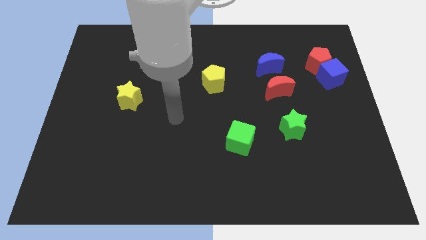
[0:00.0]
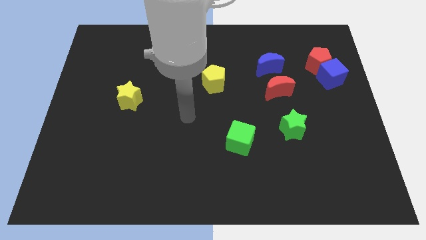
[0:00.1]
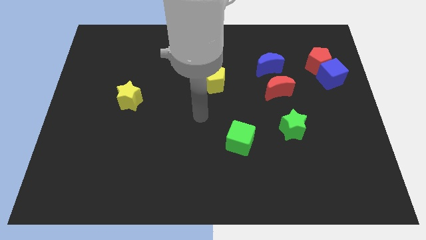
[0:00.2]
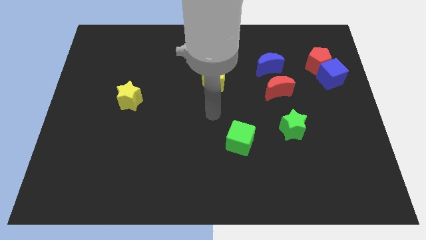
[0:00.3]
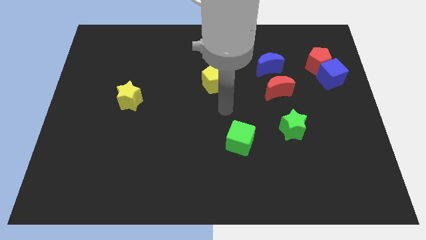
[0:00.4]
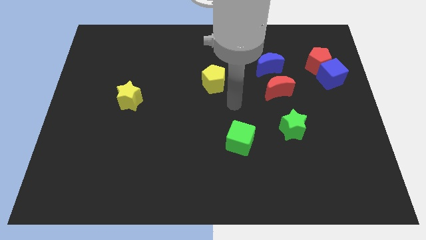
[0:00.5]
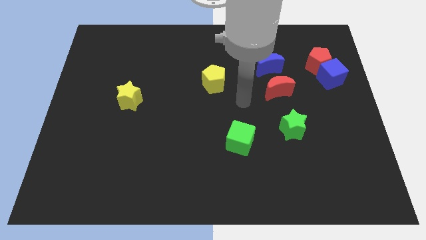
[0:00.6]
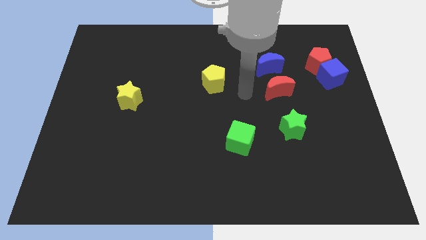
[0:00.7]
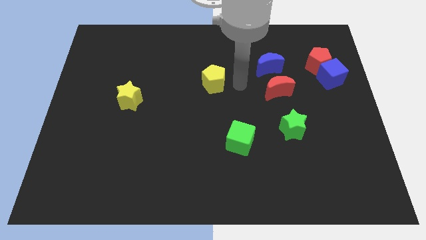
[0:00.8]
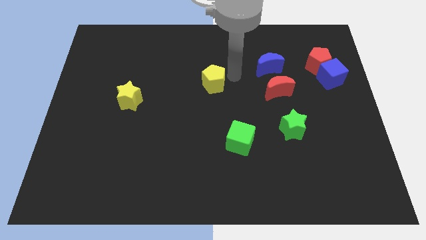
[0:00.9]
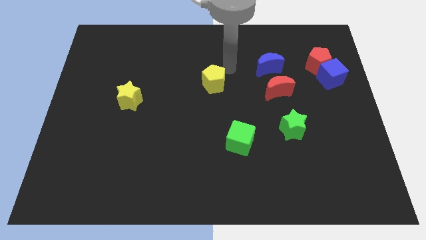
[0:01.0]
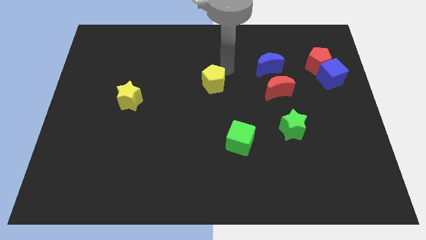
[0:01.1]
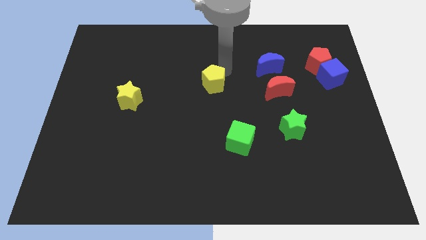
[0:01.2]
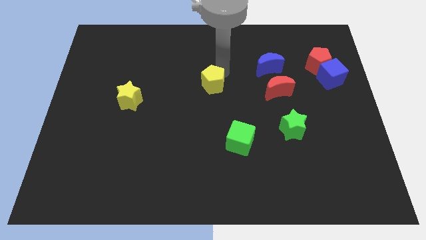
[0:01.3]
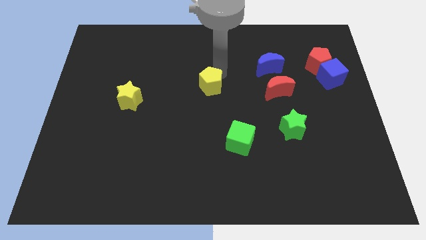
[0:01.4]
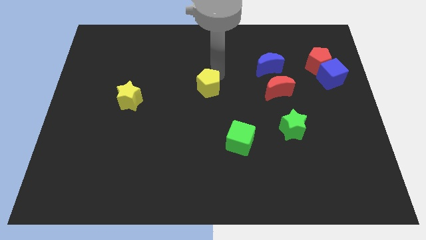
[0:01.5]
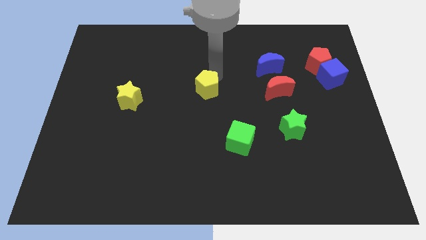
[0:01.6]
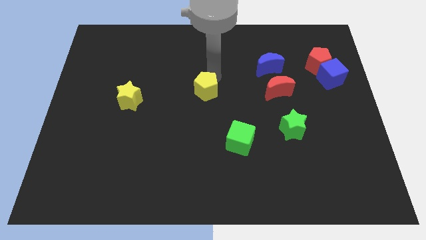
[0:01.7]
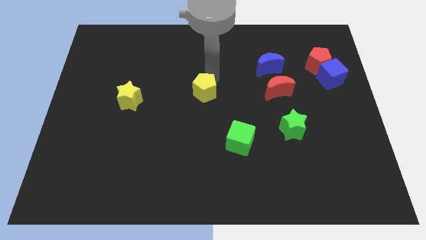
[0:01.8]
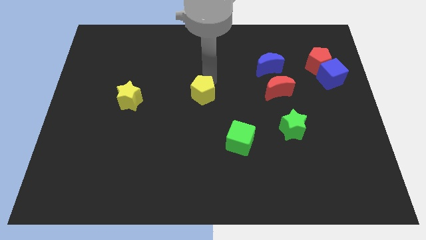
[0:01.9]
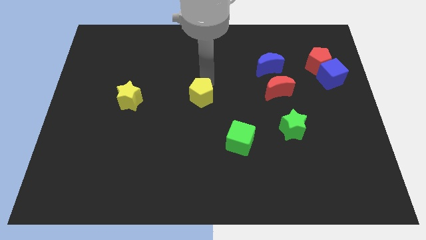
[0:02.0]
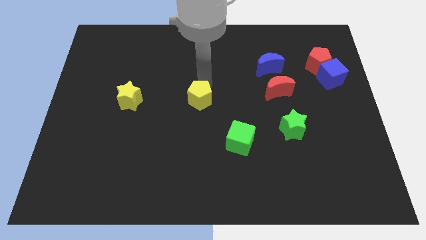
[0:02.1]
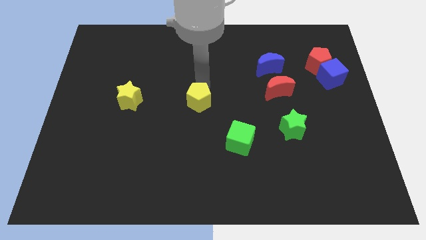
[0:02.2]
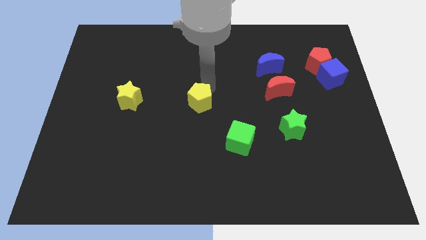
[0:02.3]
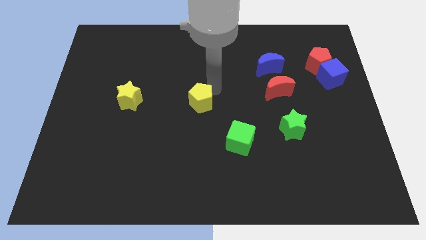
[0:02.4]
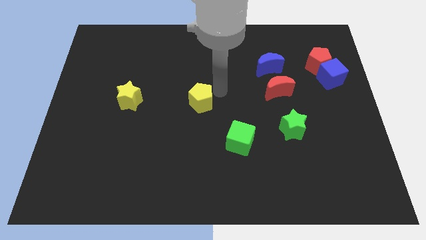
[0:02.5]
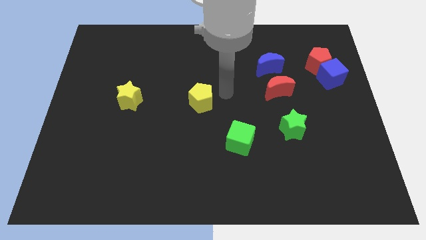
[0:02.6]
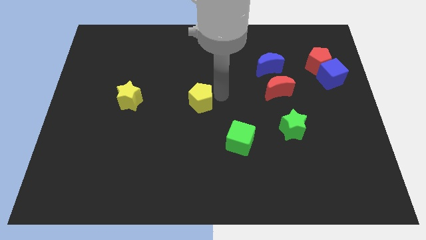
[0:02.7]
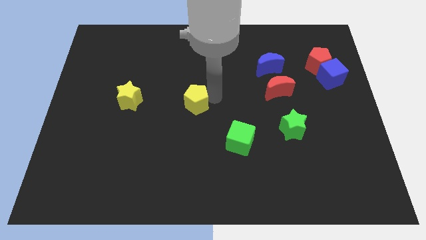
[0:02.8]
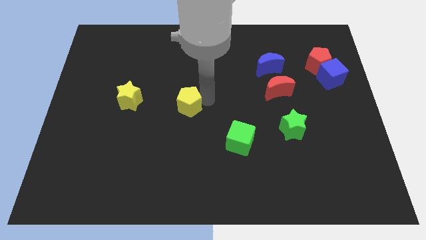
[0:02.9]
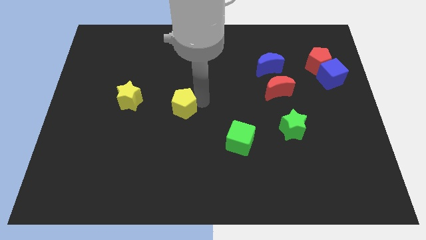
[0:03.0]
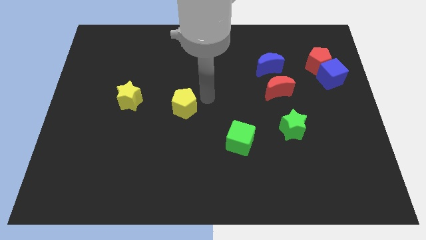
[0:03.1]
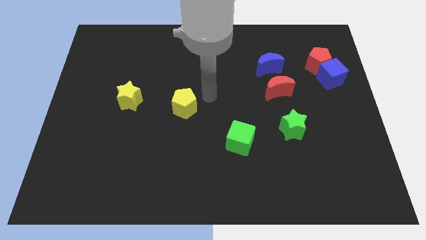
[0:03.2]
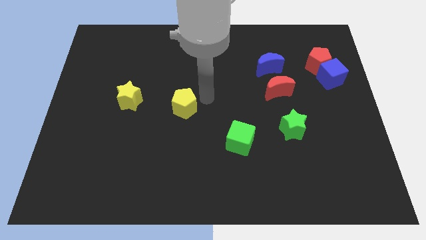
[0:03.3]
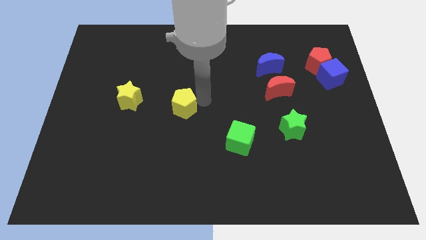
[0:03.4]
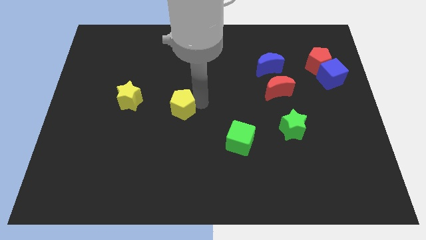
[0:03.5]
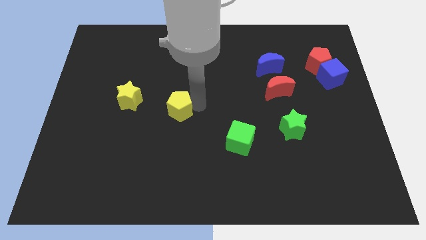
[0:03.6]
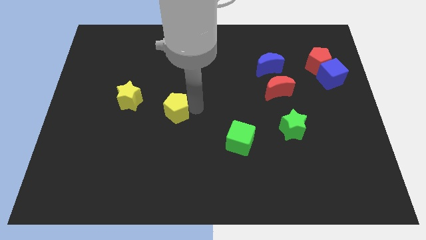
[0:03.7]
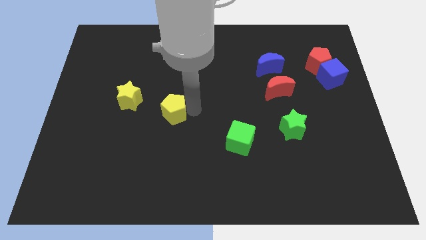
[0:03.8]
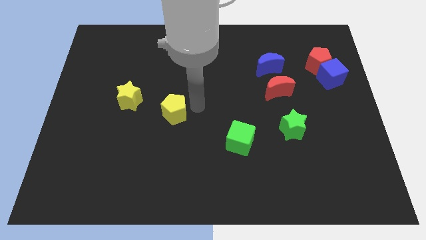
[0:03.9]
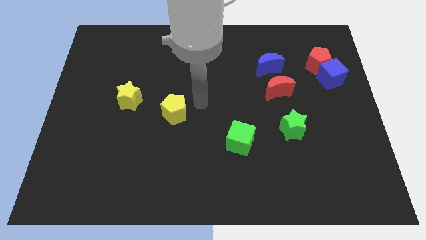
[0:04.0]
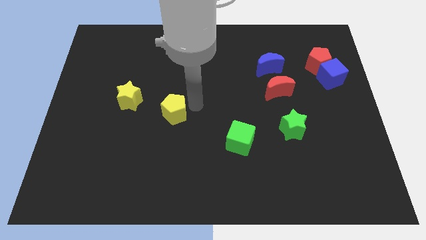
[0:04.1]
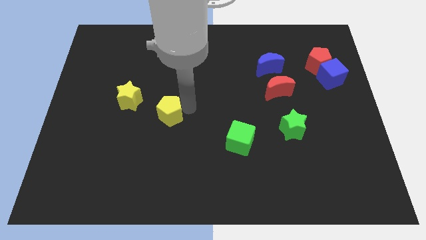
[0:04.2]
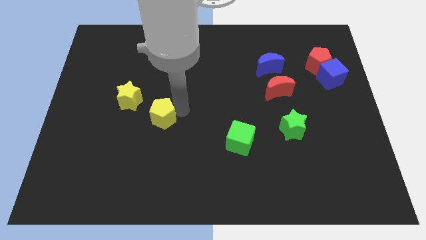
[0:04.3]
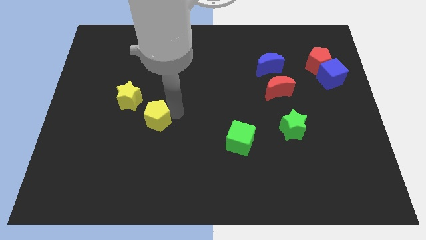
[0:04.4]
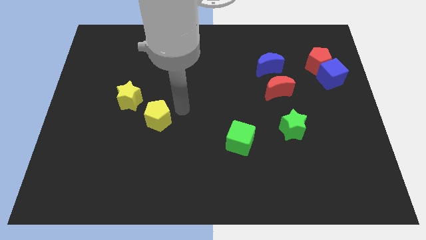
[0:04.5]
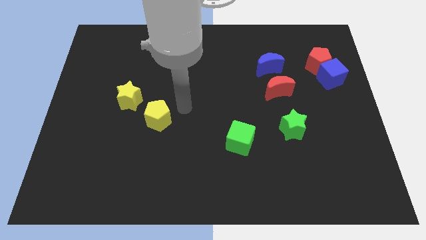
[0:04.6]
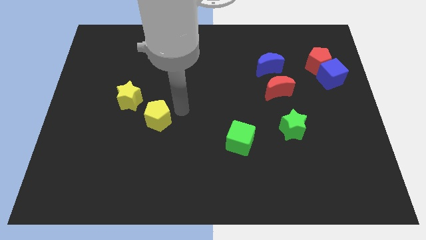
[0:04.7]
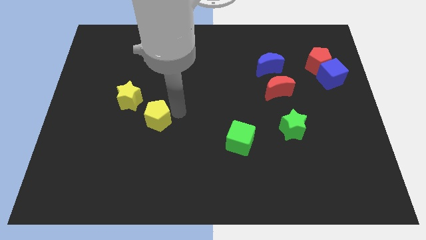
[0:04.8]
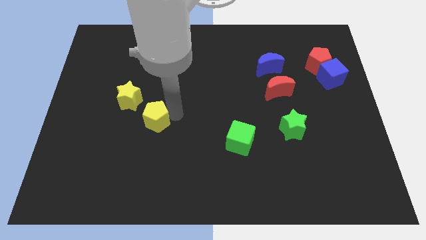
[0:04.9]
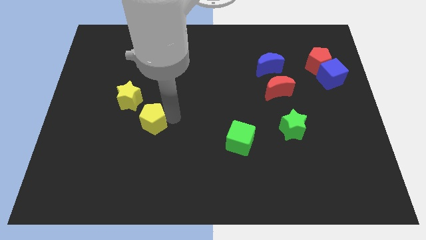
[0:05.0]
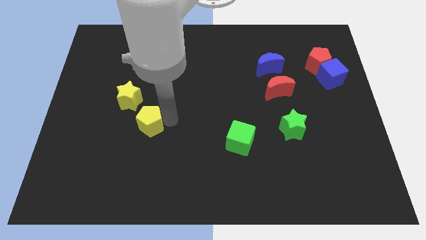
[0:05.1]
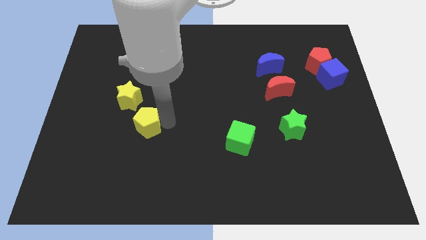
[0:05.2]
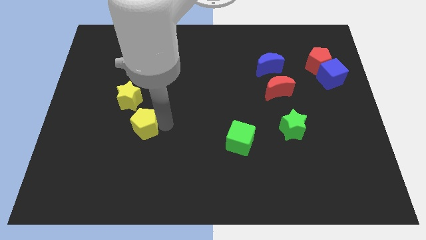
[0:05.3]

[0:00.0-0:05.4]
push the yellow pentagon below the yellow star
